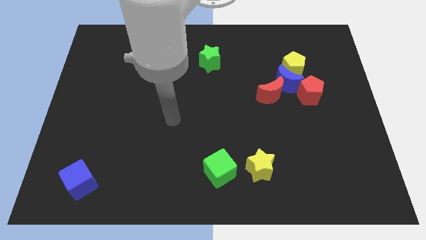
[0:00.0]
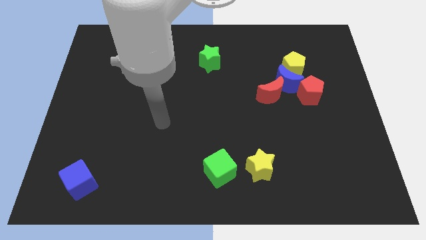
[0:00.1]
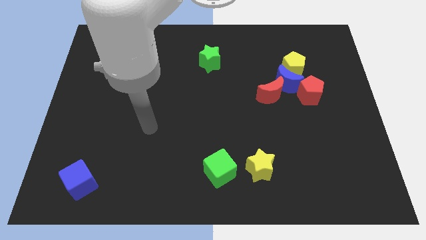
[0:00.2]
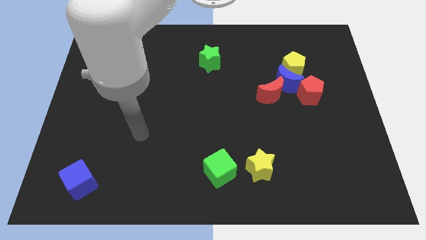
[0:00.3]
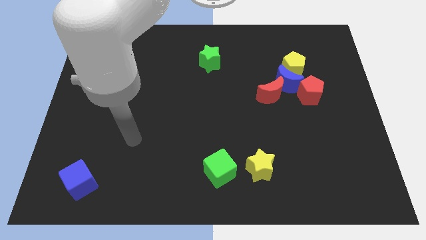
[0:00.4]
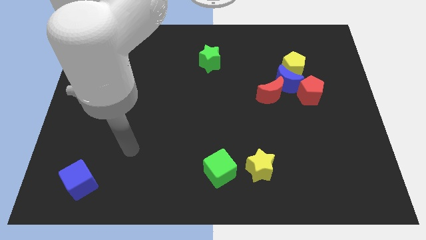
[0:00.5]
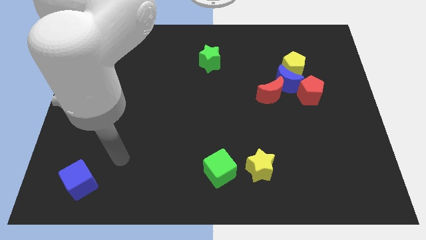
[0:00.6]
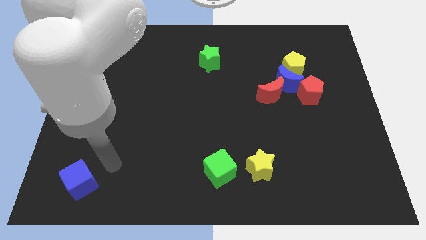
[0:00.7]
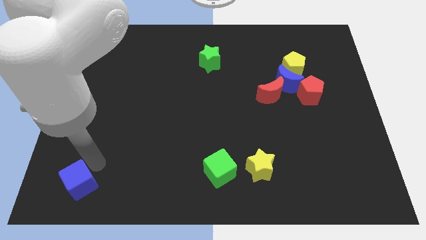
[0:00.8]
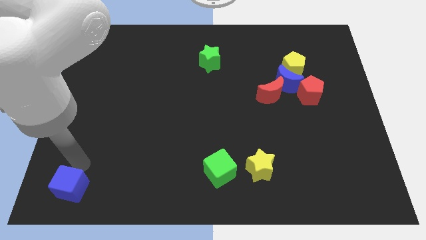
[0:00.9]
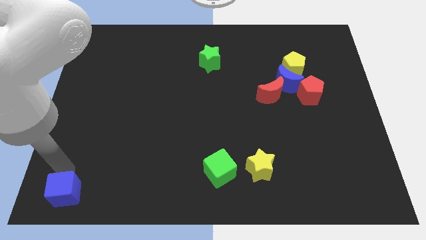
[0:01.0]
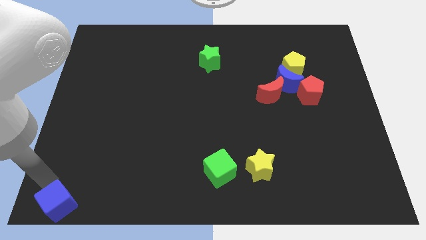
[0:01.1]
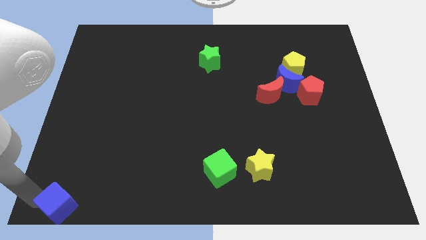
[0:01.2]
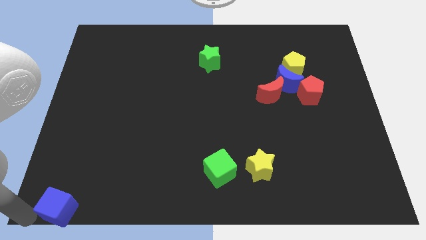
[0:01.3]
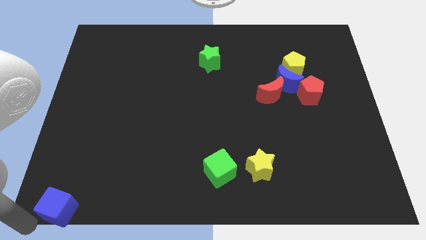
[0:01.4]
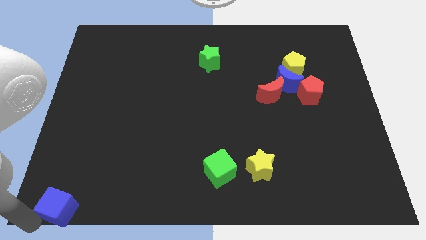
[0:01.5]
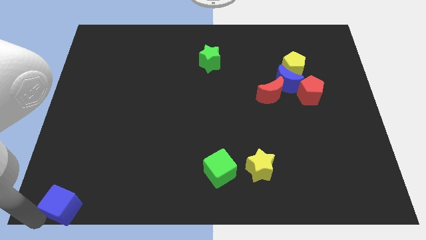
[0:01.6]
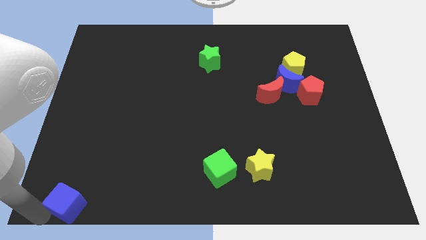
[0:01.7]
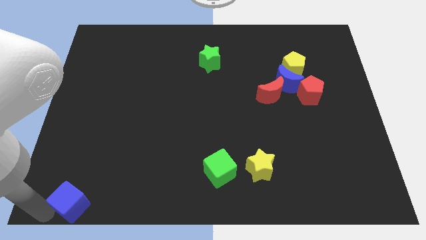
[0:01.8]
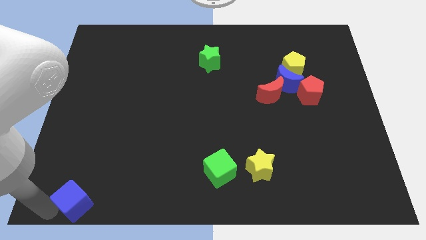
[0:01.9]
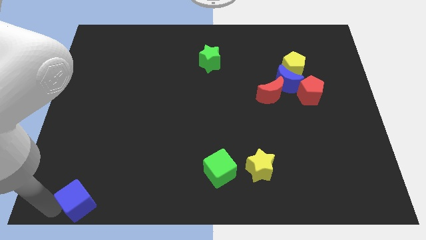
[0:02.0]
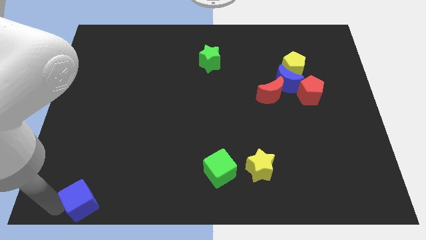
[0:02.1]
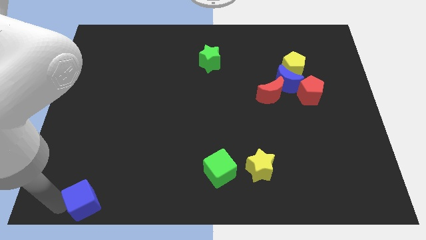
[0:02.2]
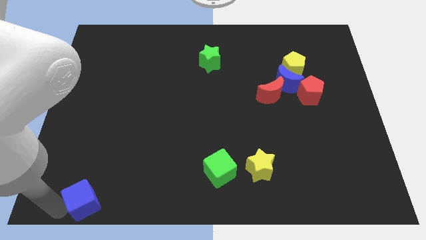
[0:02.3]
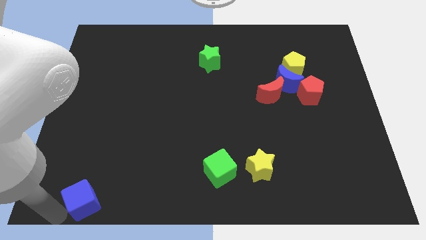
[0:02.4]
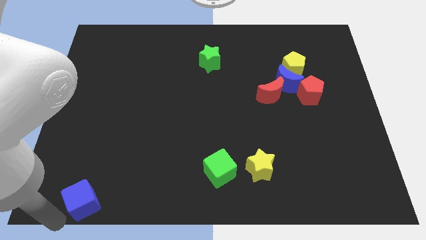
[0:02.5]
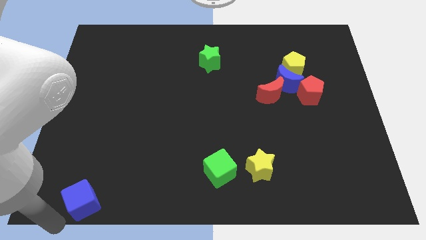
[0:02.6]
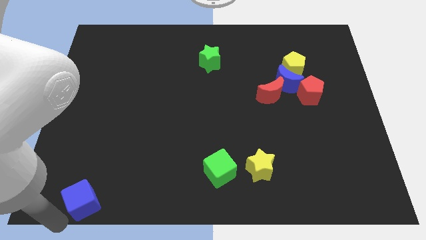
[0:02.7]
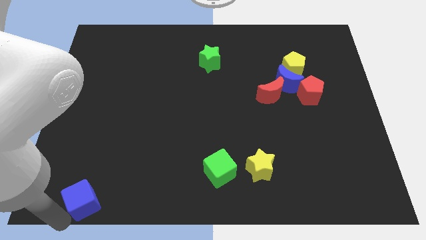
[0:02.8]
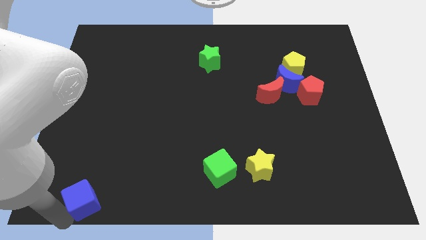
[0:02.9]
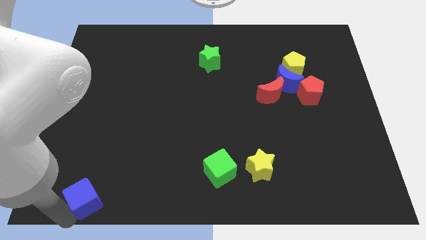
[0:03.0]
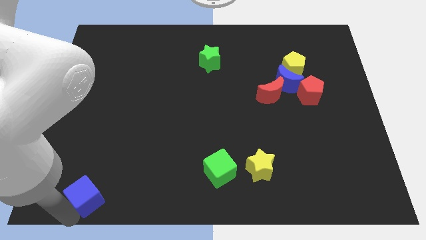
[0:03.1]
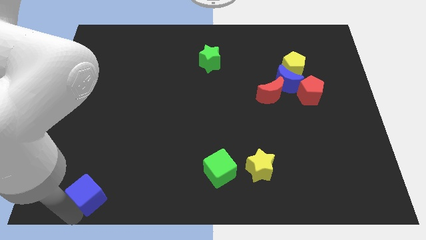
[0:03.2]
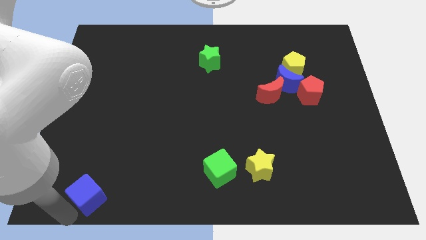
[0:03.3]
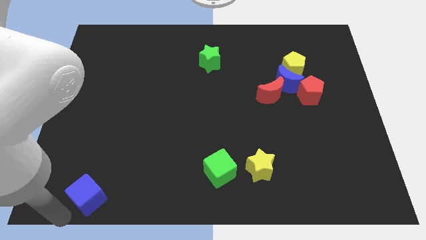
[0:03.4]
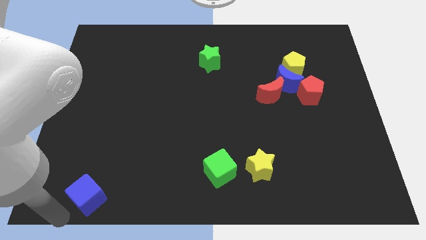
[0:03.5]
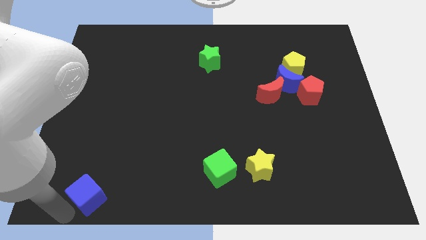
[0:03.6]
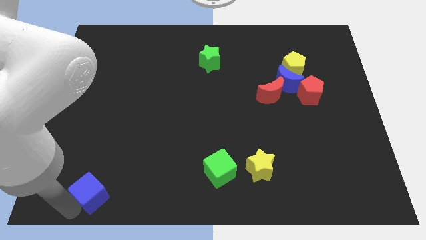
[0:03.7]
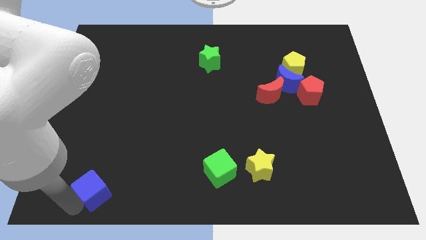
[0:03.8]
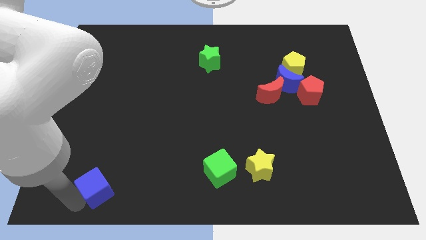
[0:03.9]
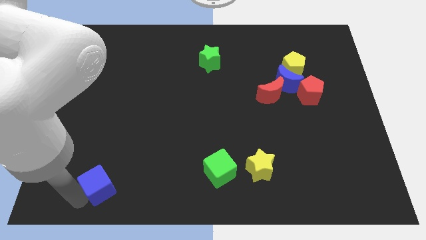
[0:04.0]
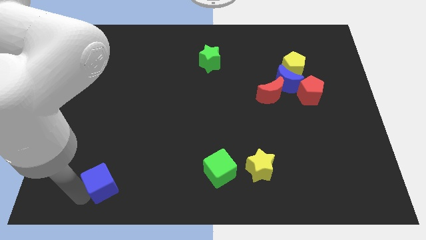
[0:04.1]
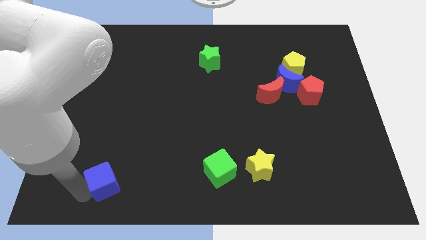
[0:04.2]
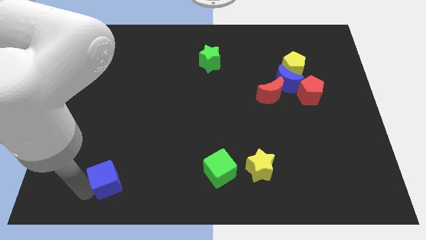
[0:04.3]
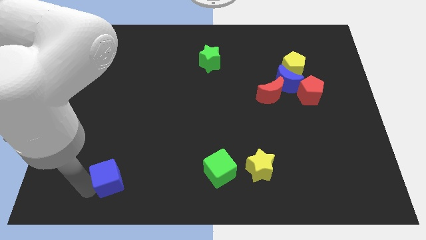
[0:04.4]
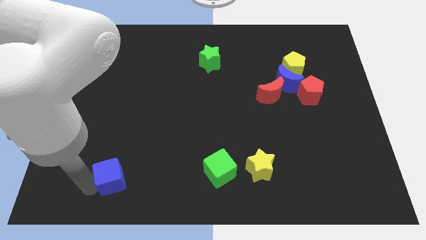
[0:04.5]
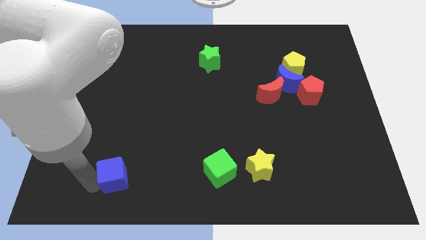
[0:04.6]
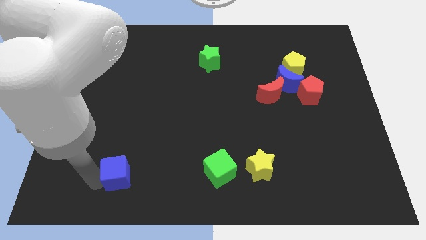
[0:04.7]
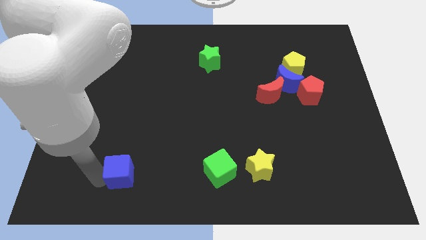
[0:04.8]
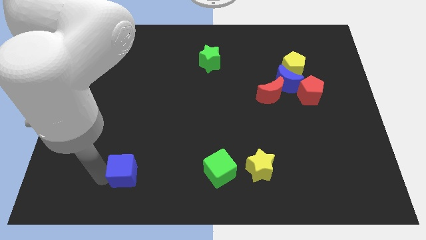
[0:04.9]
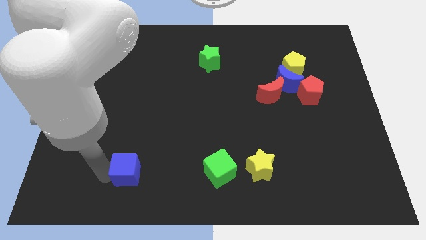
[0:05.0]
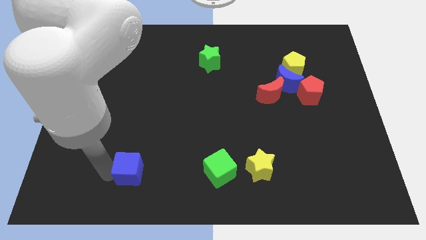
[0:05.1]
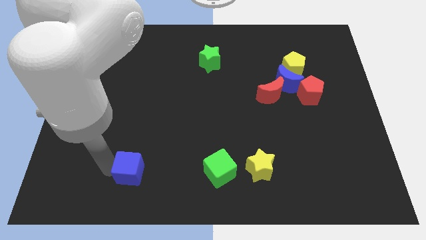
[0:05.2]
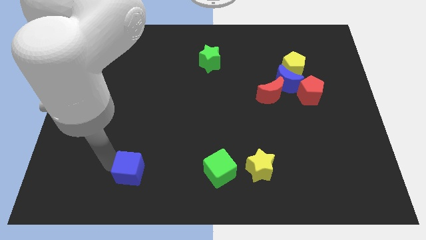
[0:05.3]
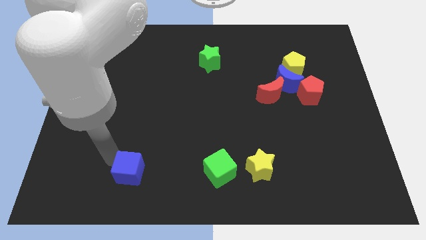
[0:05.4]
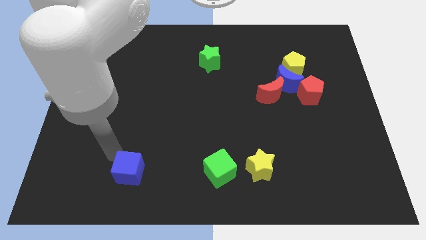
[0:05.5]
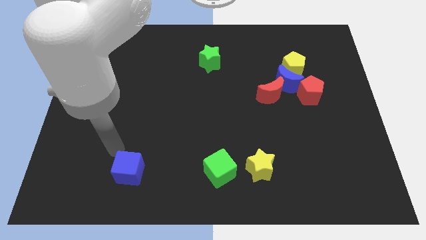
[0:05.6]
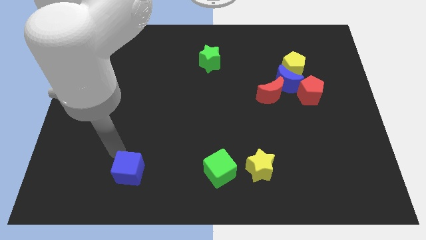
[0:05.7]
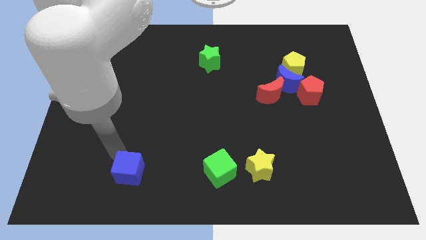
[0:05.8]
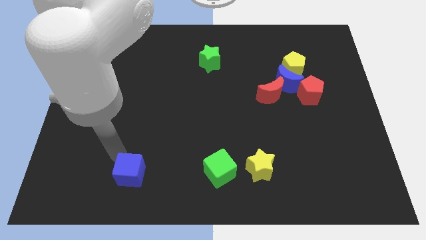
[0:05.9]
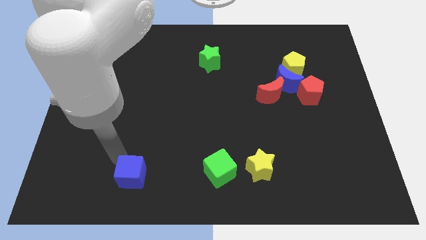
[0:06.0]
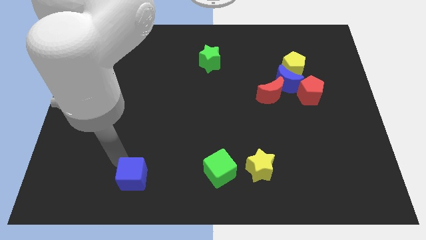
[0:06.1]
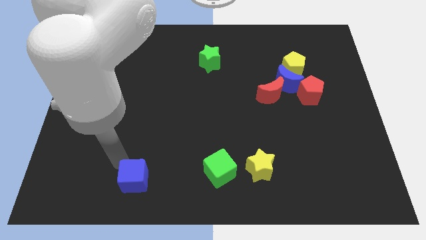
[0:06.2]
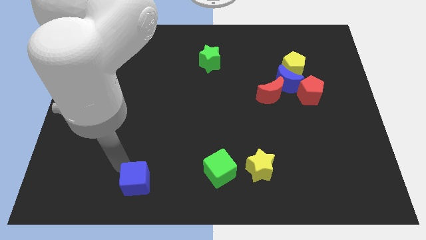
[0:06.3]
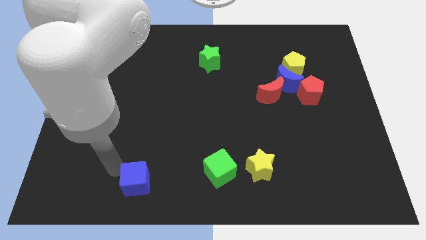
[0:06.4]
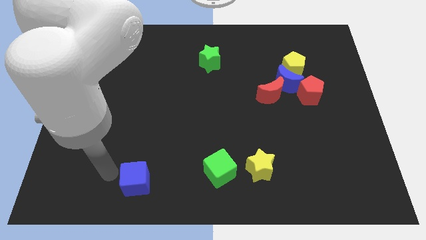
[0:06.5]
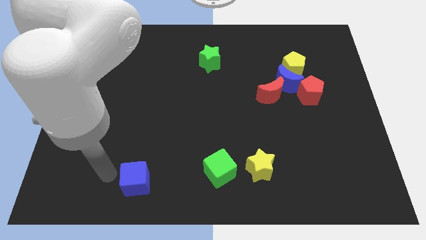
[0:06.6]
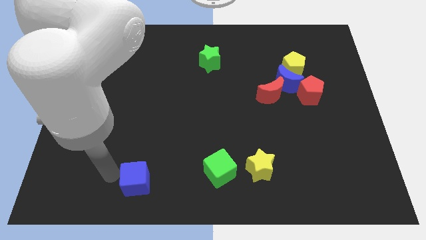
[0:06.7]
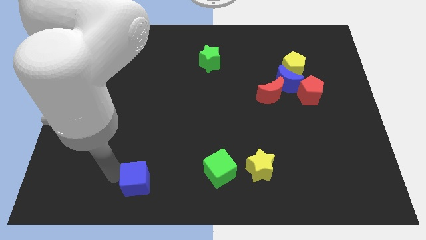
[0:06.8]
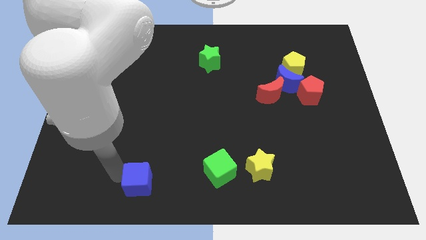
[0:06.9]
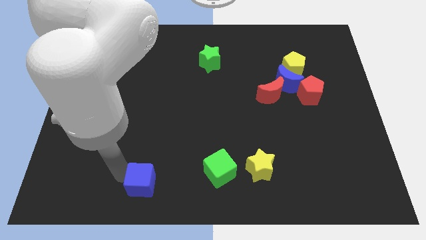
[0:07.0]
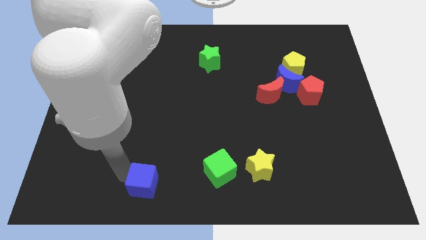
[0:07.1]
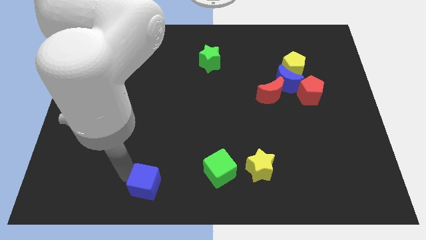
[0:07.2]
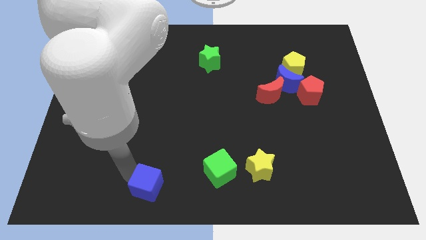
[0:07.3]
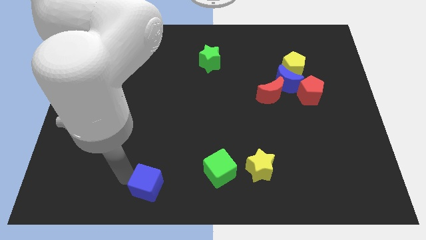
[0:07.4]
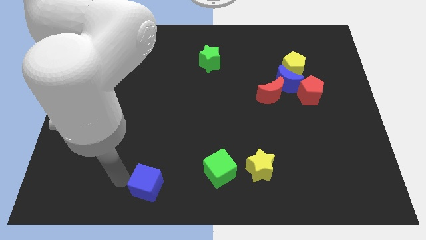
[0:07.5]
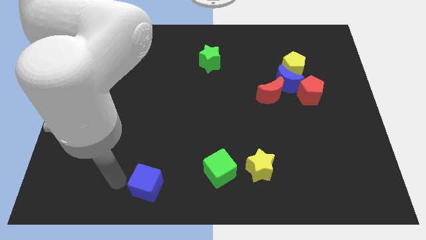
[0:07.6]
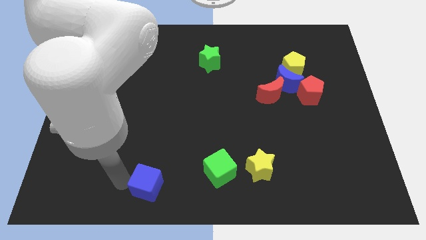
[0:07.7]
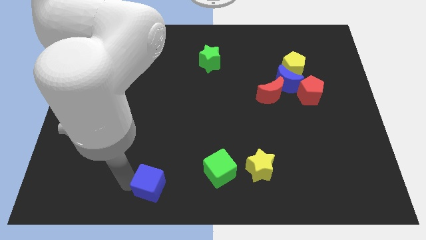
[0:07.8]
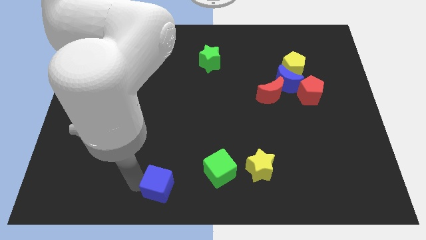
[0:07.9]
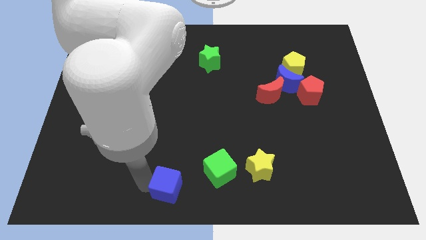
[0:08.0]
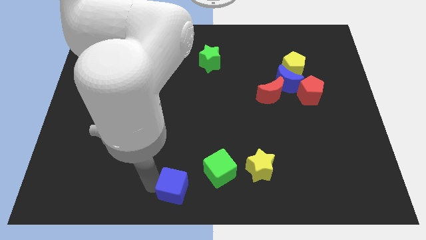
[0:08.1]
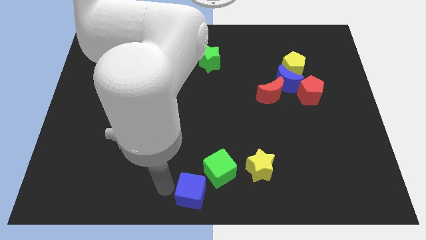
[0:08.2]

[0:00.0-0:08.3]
slide the blue cube to the right
